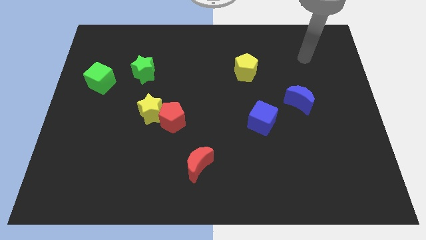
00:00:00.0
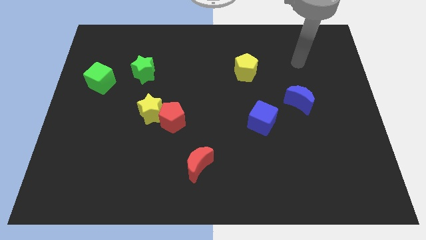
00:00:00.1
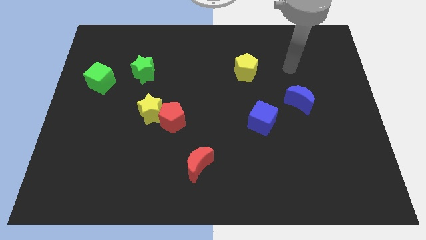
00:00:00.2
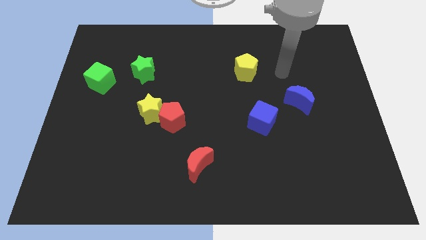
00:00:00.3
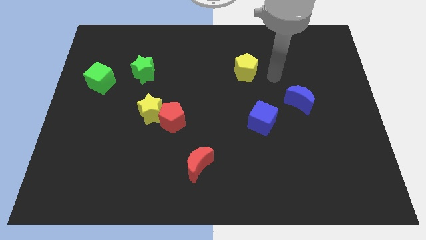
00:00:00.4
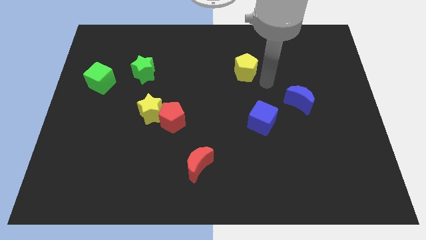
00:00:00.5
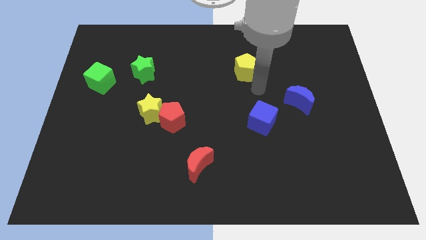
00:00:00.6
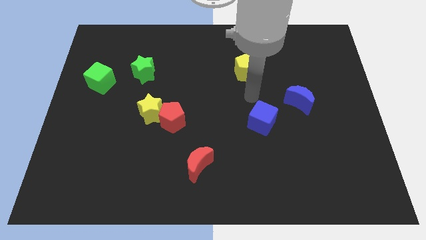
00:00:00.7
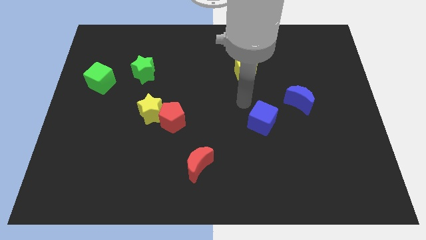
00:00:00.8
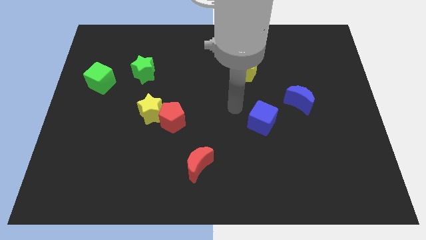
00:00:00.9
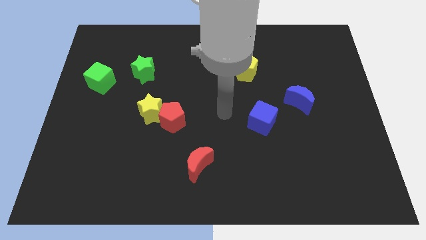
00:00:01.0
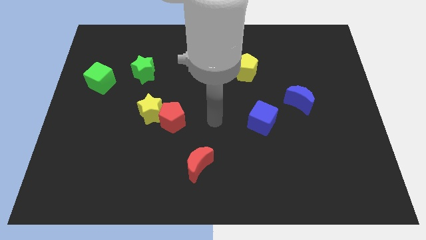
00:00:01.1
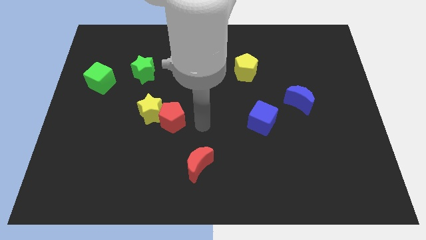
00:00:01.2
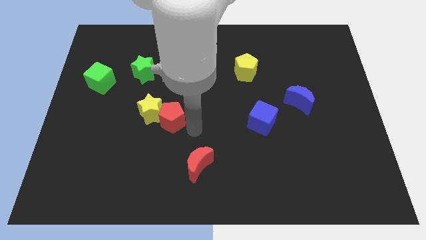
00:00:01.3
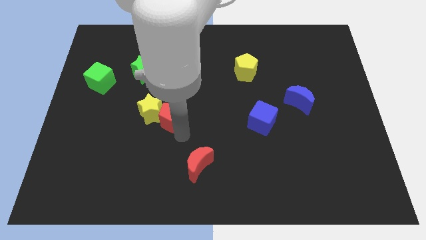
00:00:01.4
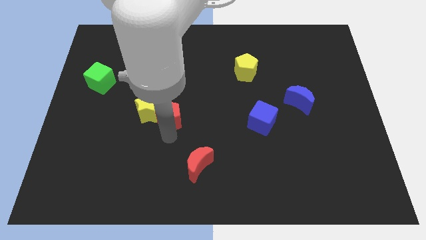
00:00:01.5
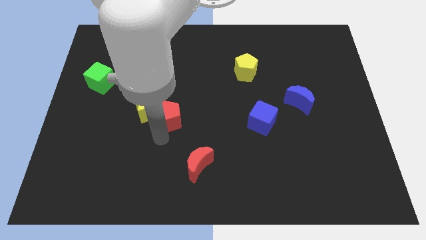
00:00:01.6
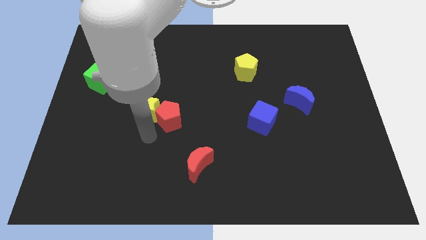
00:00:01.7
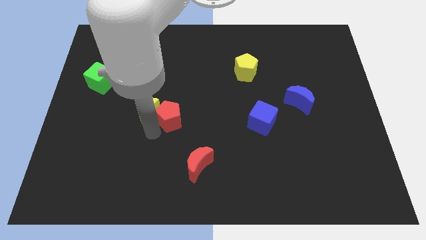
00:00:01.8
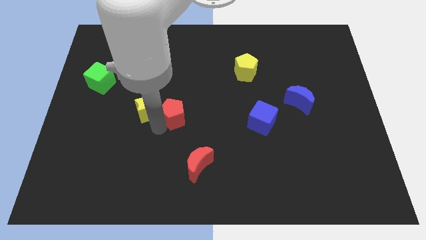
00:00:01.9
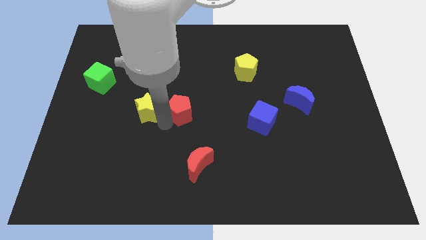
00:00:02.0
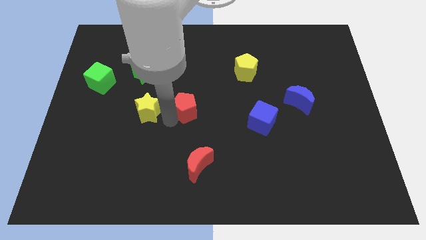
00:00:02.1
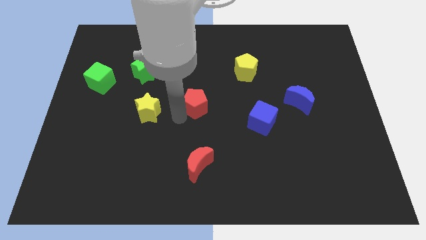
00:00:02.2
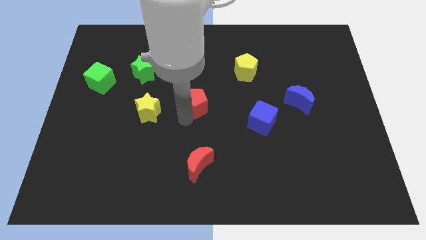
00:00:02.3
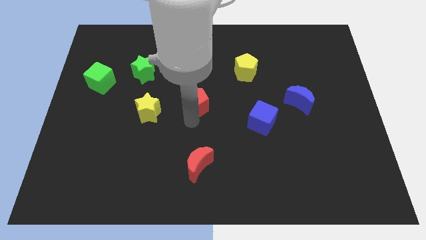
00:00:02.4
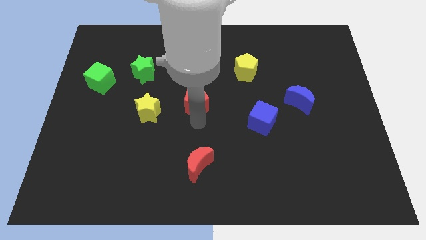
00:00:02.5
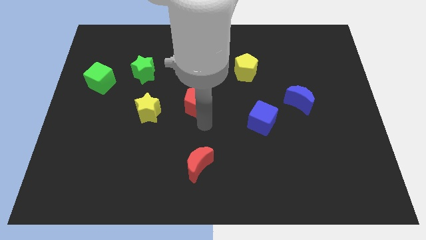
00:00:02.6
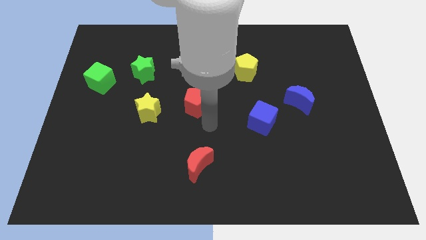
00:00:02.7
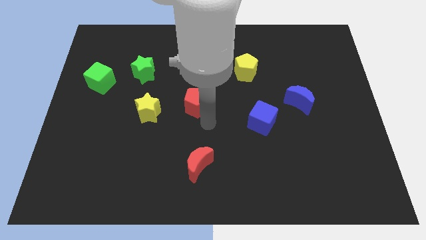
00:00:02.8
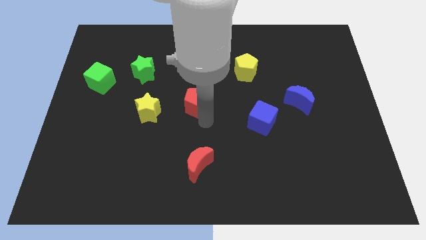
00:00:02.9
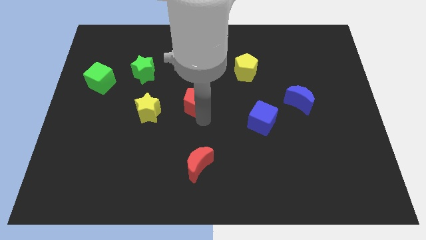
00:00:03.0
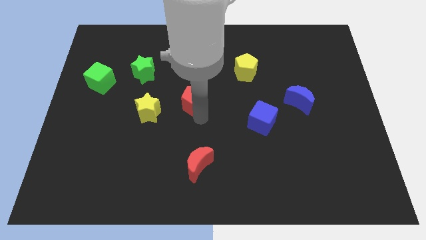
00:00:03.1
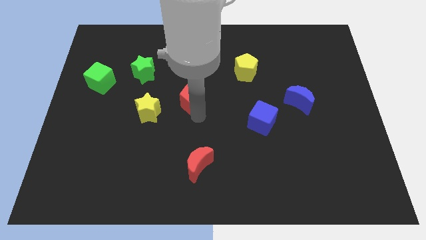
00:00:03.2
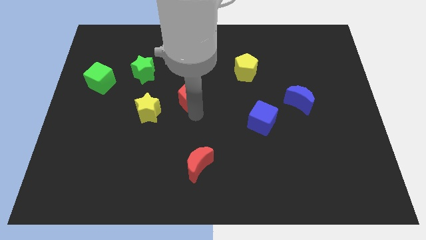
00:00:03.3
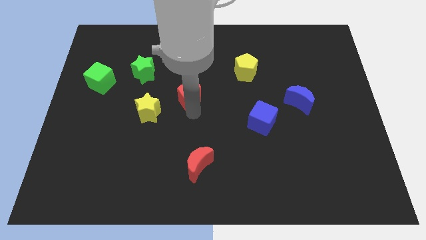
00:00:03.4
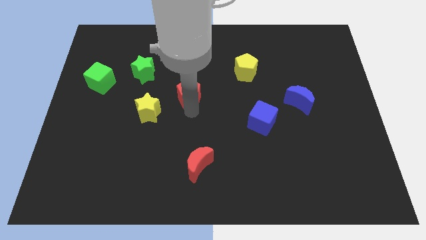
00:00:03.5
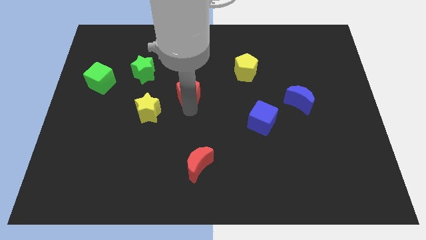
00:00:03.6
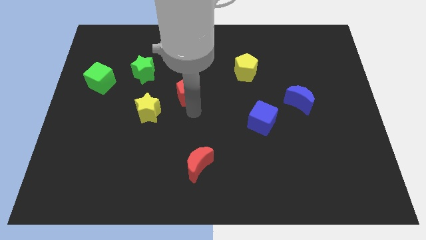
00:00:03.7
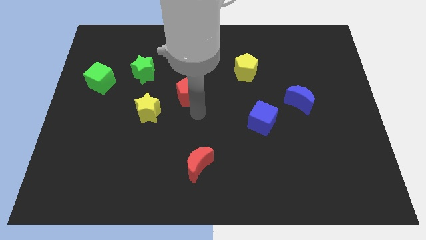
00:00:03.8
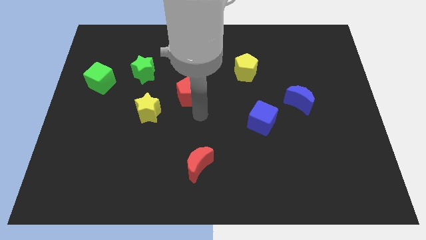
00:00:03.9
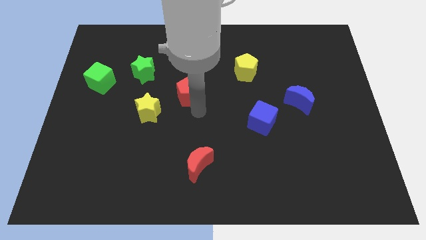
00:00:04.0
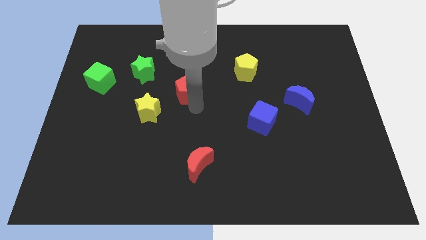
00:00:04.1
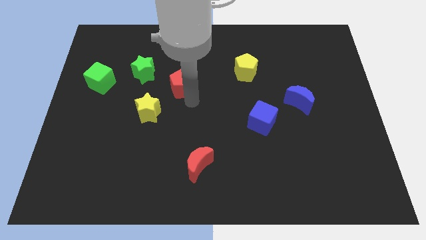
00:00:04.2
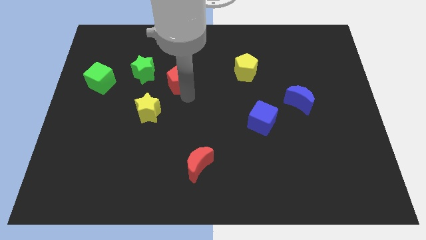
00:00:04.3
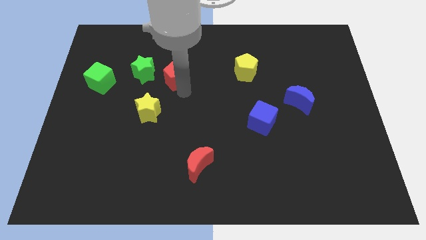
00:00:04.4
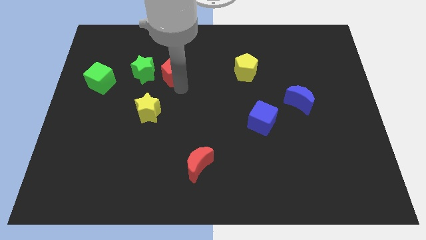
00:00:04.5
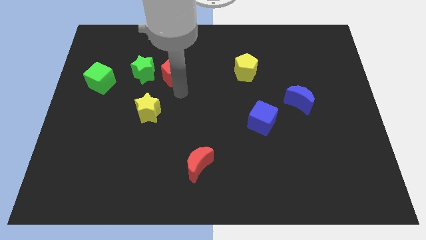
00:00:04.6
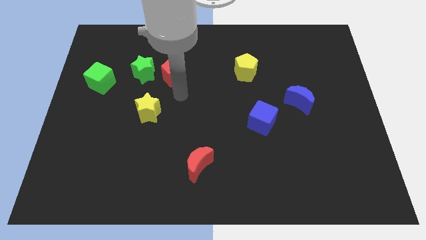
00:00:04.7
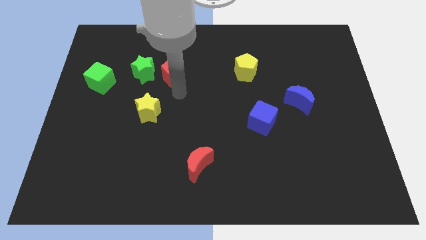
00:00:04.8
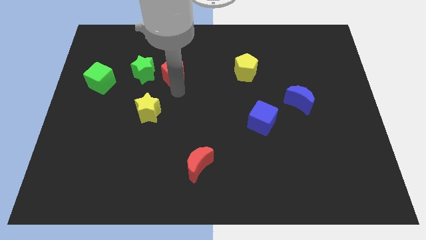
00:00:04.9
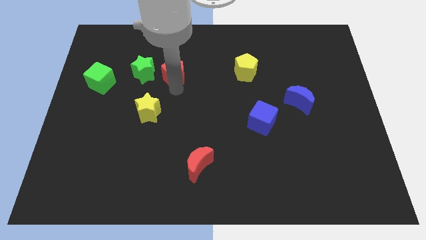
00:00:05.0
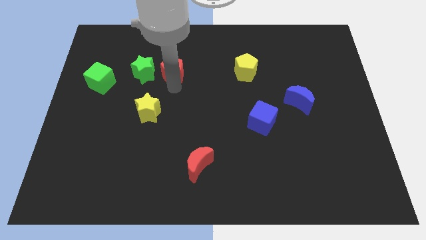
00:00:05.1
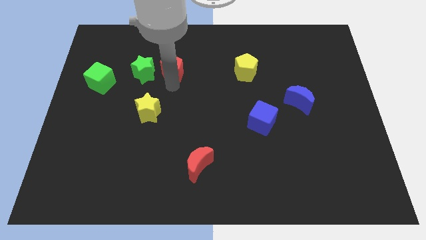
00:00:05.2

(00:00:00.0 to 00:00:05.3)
put the red pentagon to the top right of the green star

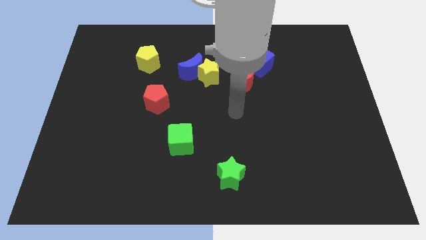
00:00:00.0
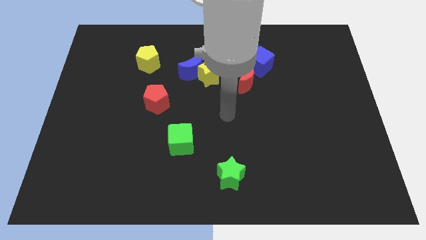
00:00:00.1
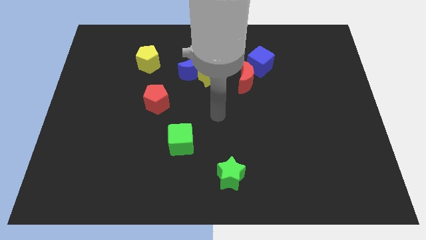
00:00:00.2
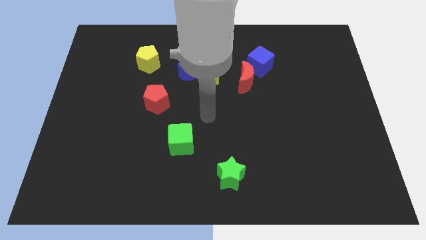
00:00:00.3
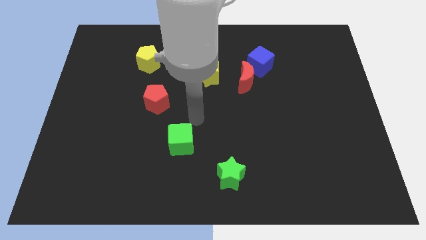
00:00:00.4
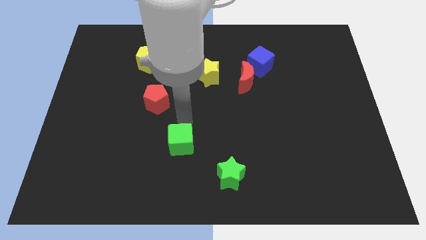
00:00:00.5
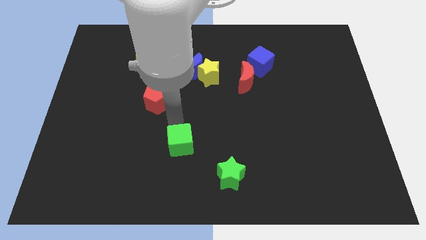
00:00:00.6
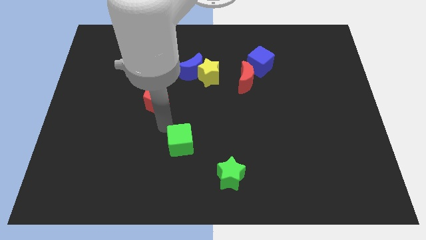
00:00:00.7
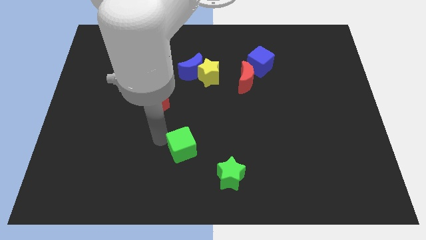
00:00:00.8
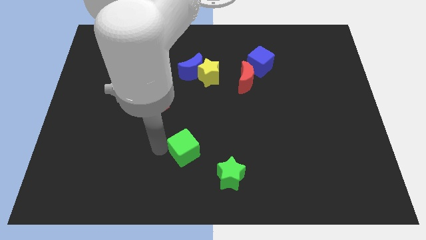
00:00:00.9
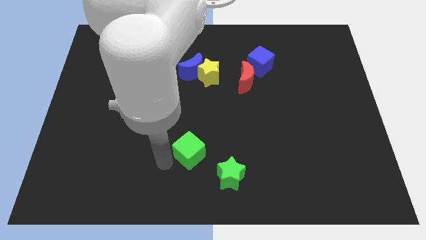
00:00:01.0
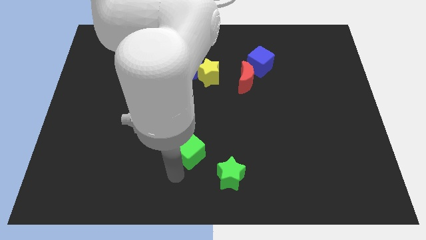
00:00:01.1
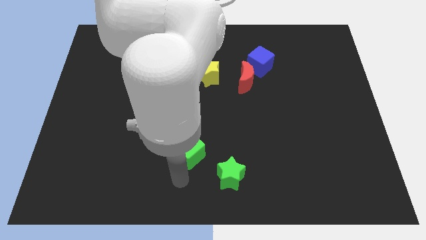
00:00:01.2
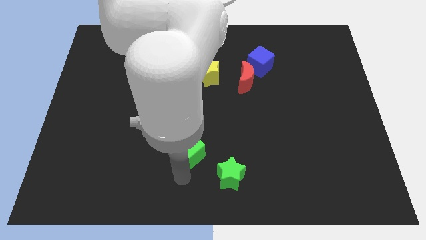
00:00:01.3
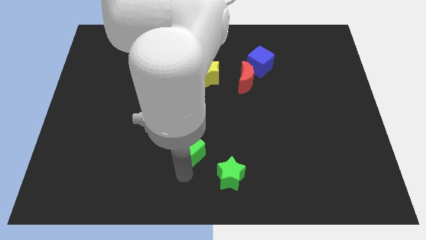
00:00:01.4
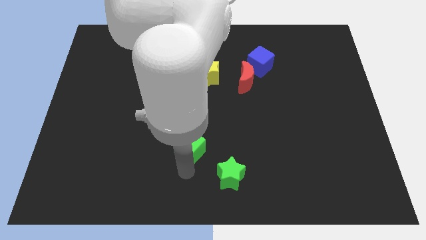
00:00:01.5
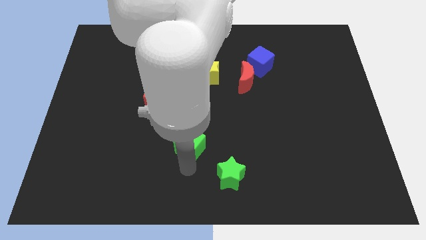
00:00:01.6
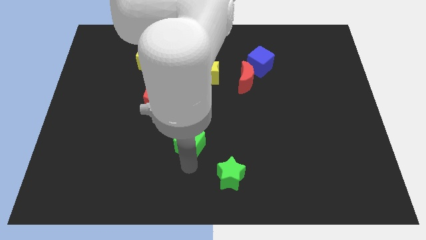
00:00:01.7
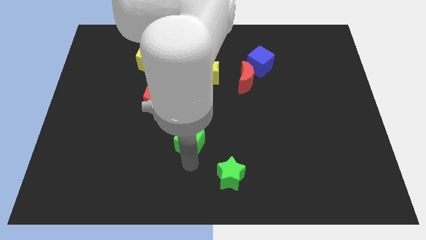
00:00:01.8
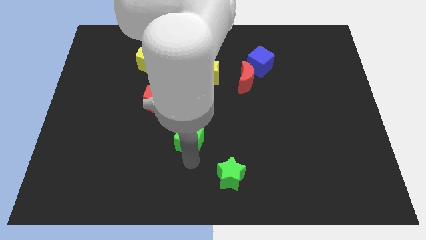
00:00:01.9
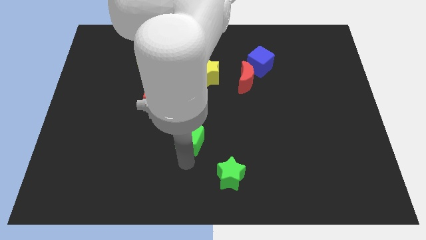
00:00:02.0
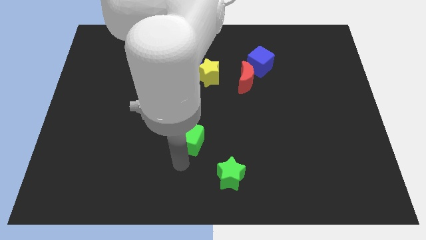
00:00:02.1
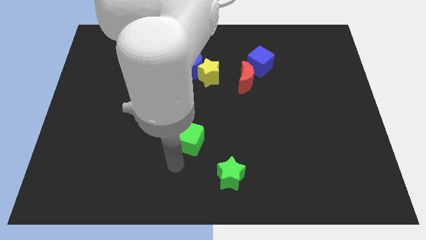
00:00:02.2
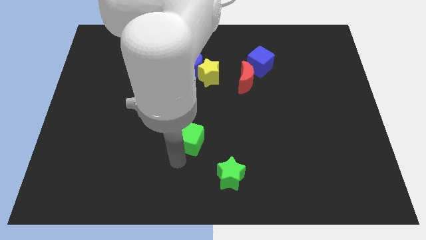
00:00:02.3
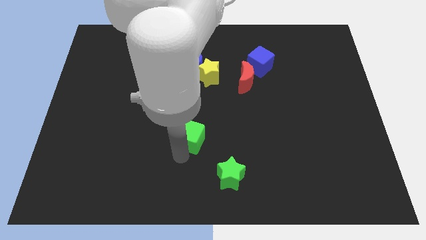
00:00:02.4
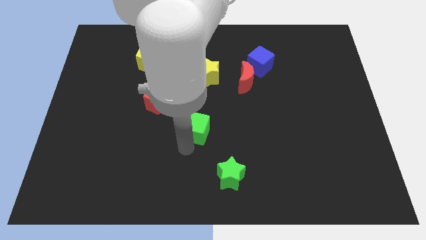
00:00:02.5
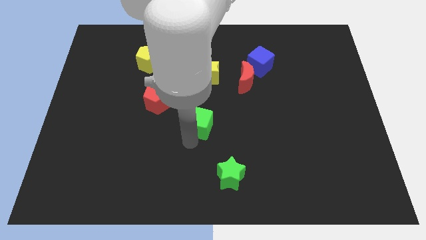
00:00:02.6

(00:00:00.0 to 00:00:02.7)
put the green cube below the yellow star
